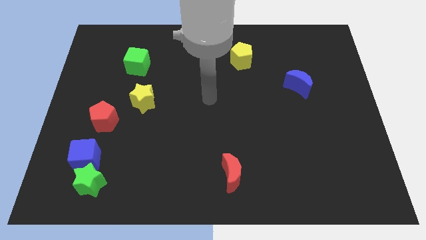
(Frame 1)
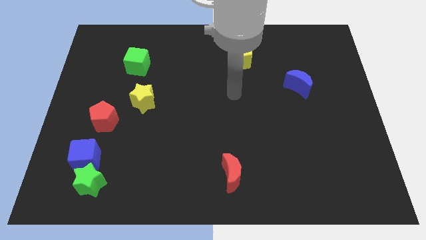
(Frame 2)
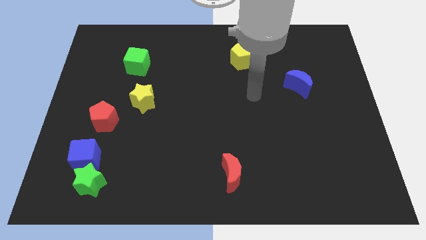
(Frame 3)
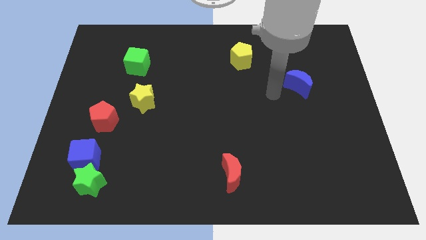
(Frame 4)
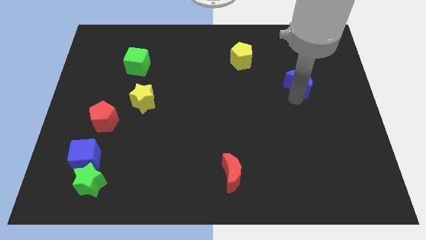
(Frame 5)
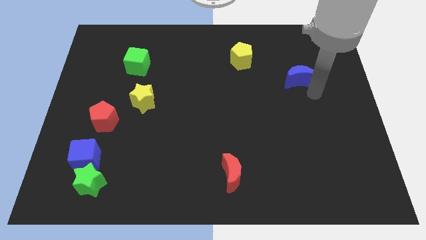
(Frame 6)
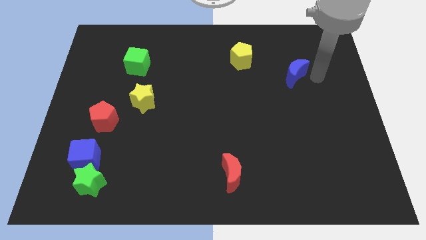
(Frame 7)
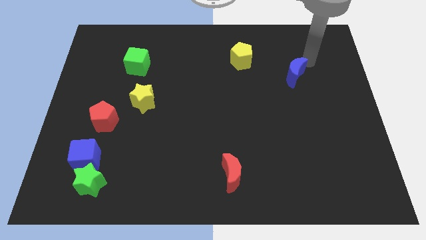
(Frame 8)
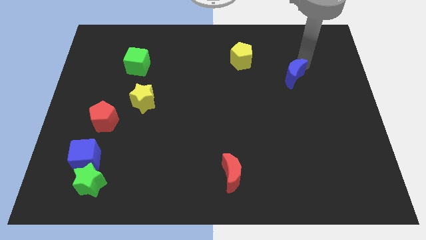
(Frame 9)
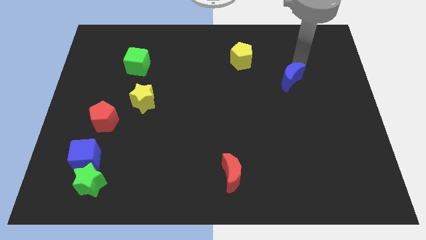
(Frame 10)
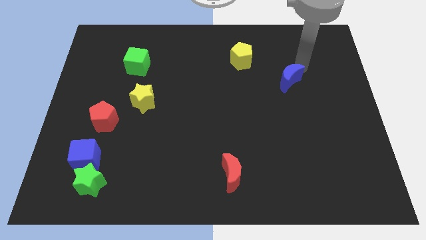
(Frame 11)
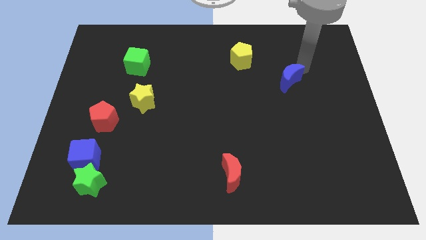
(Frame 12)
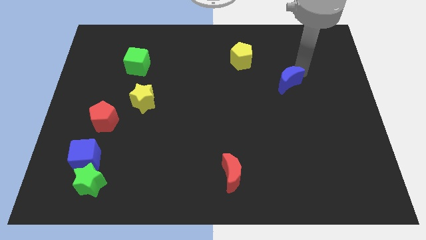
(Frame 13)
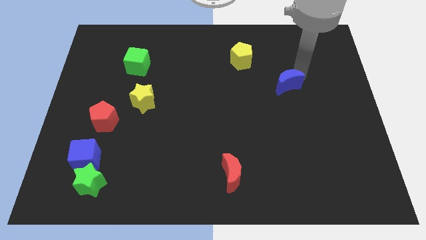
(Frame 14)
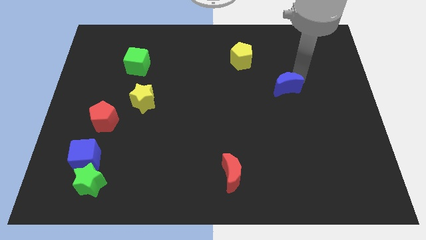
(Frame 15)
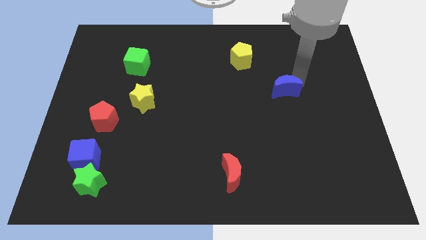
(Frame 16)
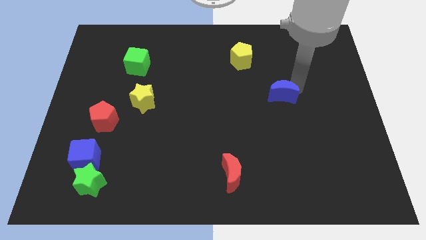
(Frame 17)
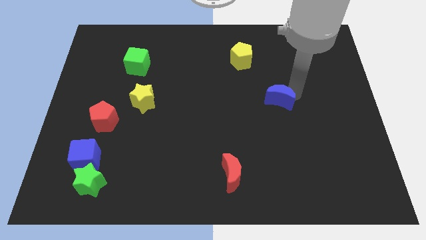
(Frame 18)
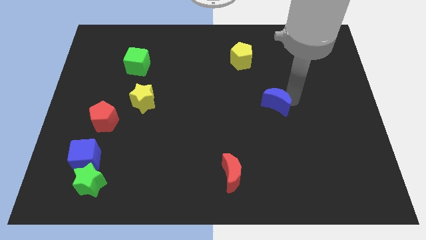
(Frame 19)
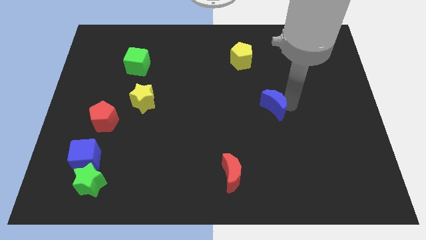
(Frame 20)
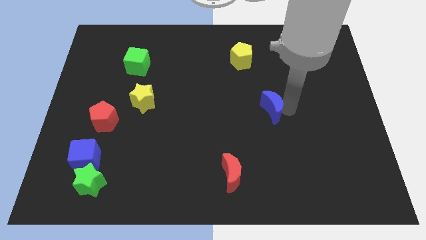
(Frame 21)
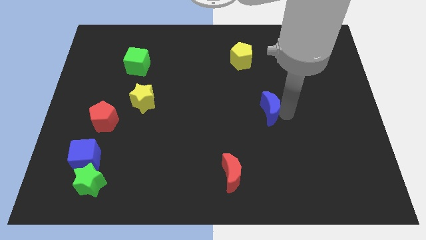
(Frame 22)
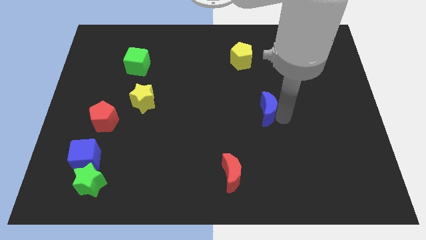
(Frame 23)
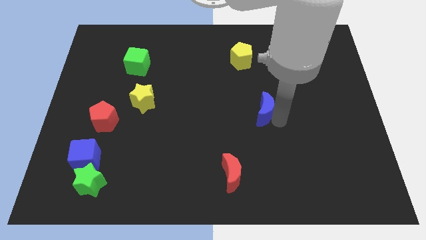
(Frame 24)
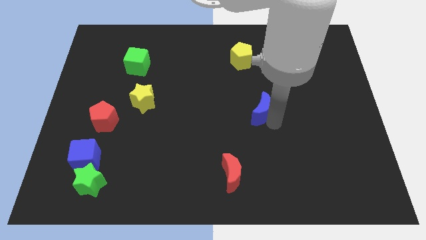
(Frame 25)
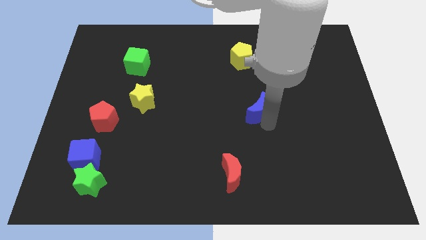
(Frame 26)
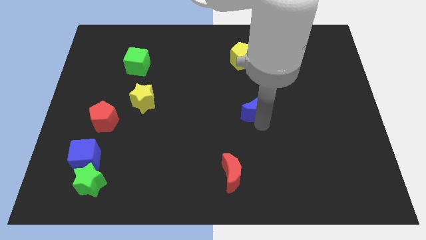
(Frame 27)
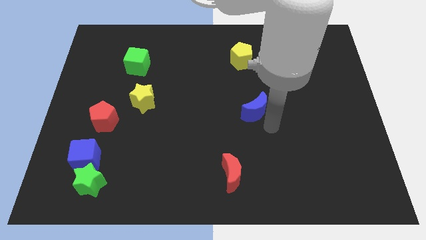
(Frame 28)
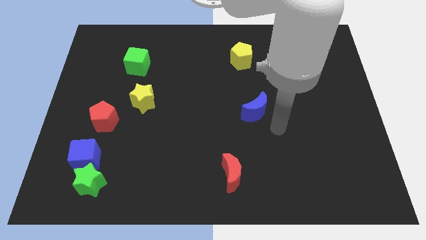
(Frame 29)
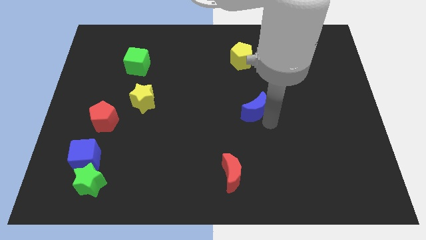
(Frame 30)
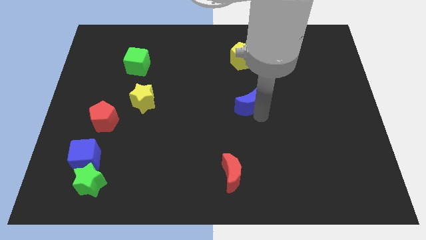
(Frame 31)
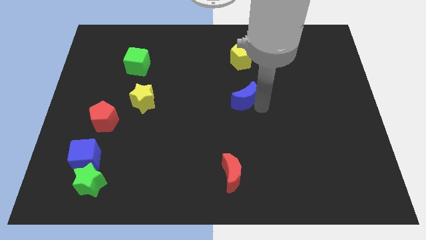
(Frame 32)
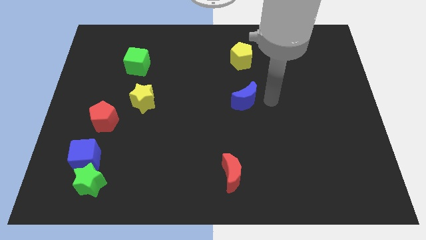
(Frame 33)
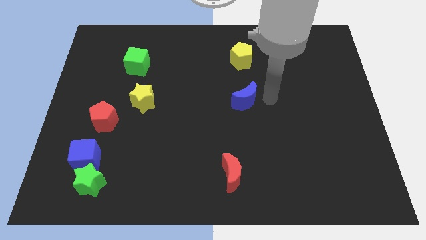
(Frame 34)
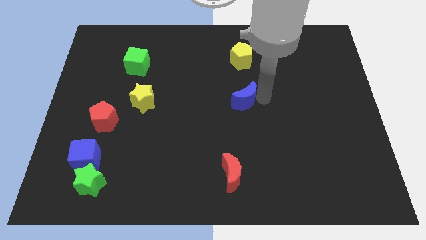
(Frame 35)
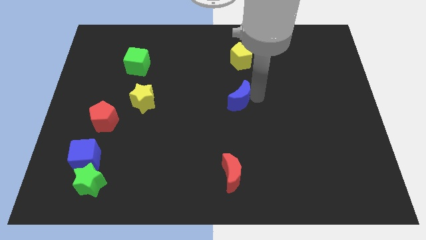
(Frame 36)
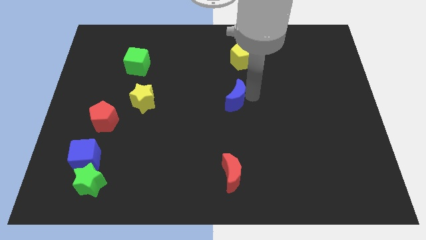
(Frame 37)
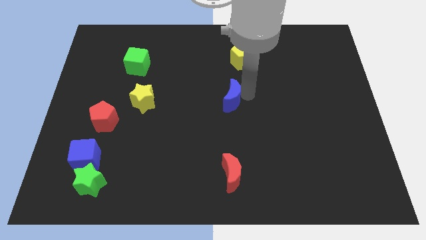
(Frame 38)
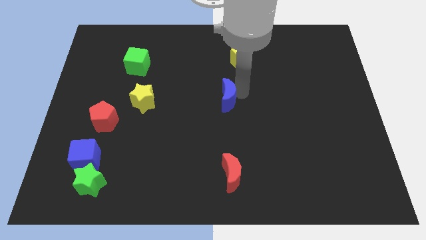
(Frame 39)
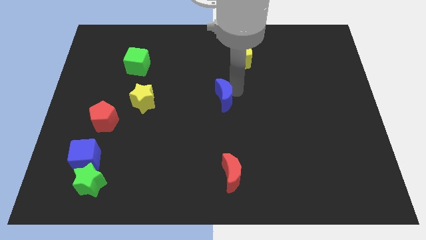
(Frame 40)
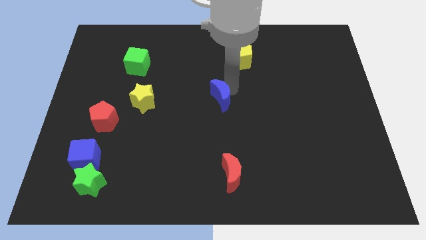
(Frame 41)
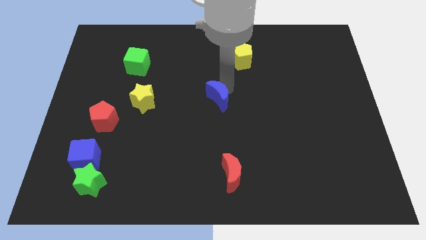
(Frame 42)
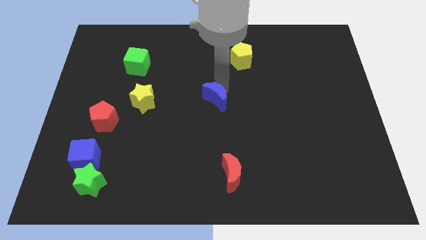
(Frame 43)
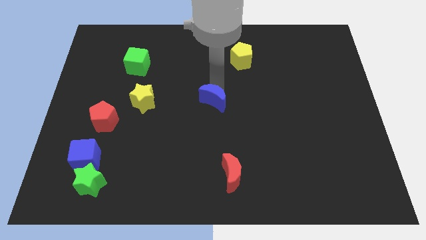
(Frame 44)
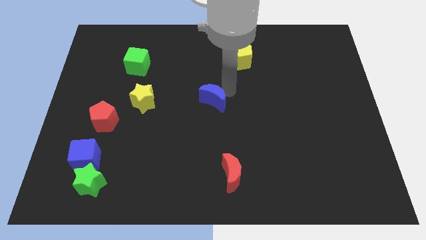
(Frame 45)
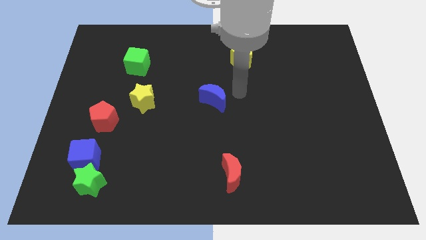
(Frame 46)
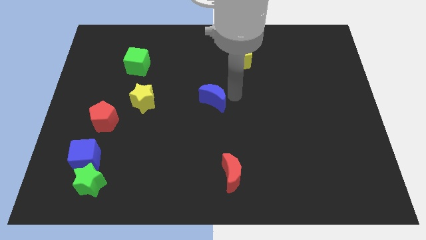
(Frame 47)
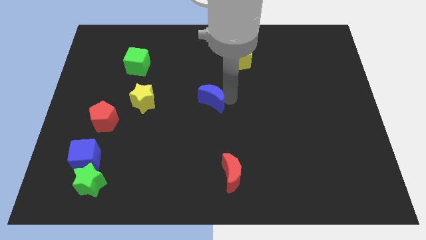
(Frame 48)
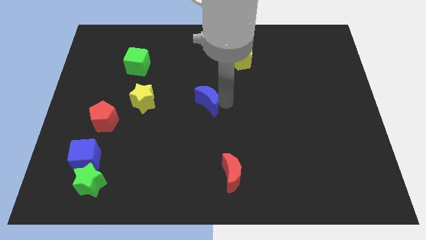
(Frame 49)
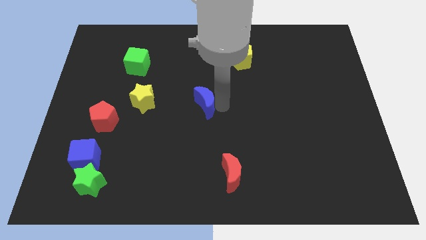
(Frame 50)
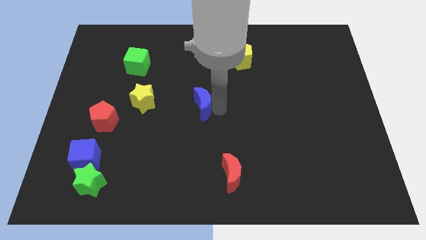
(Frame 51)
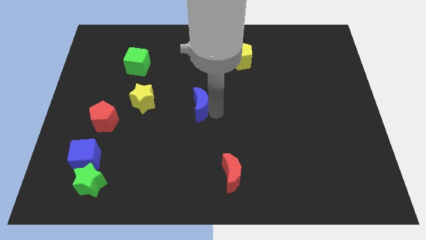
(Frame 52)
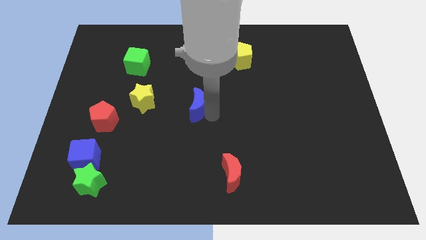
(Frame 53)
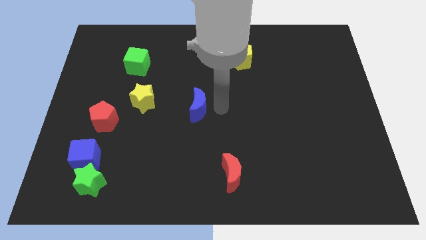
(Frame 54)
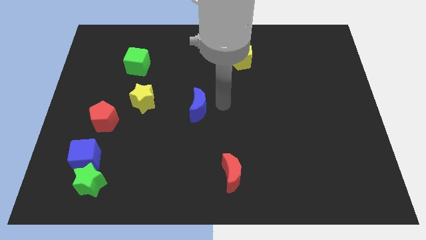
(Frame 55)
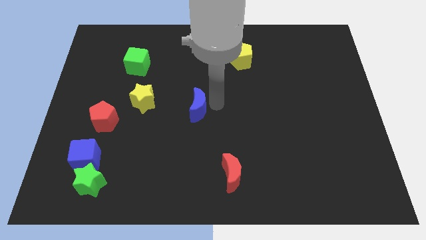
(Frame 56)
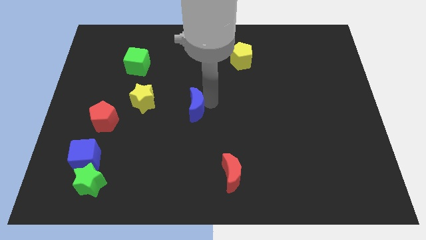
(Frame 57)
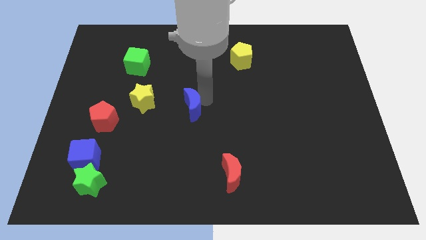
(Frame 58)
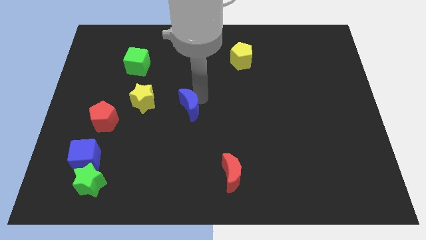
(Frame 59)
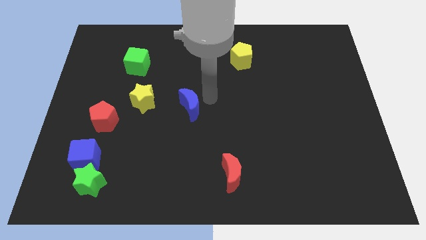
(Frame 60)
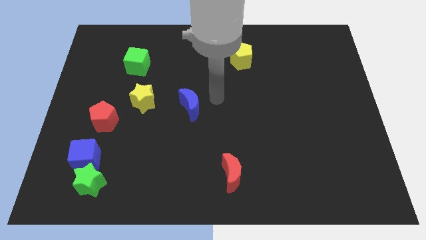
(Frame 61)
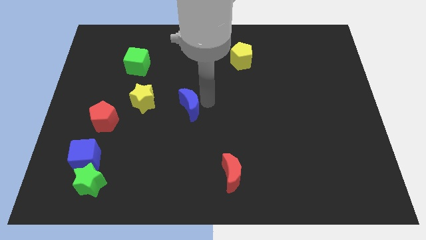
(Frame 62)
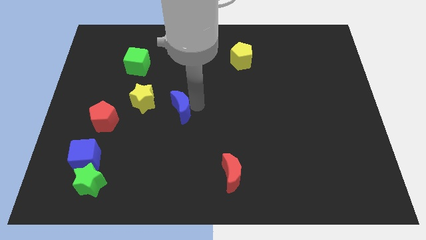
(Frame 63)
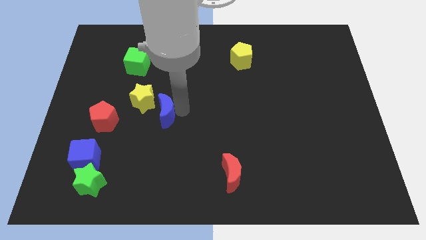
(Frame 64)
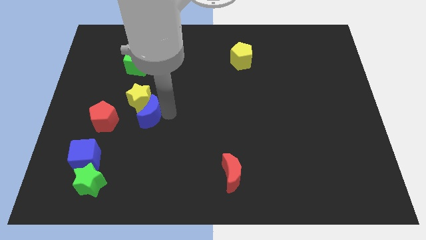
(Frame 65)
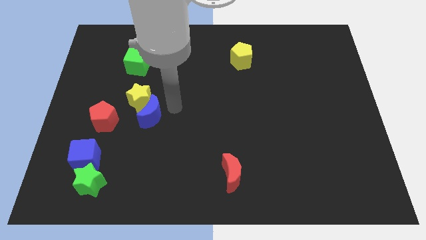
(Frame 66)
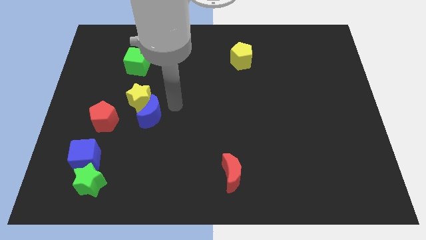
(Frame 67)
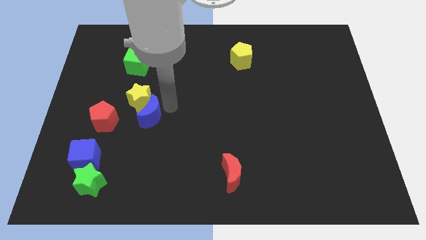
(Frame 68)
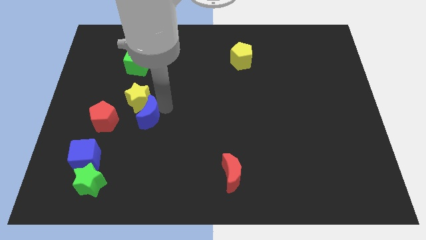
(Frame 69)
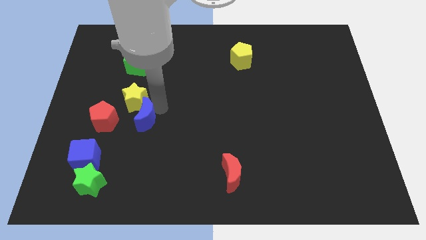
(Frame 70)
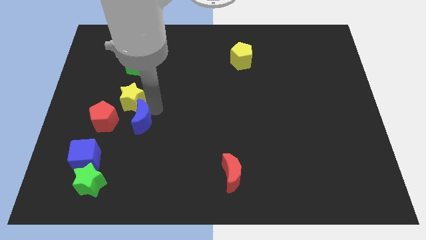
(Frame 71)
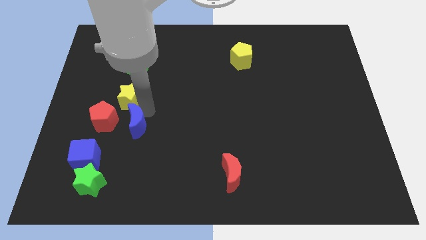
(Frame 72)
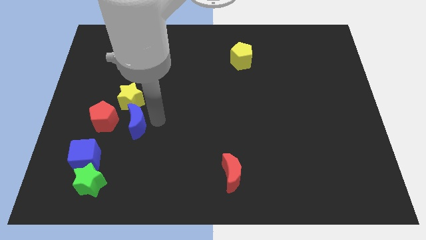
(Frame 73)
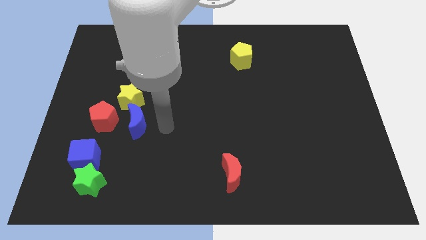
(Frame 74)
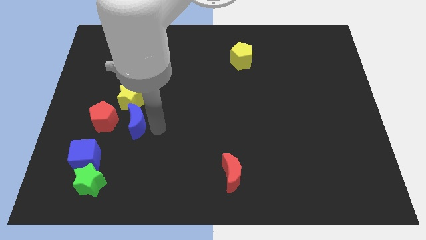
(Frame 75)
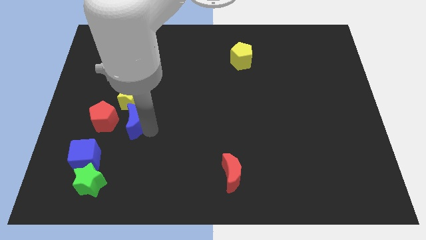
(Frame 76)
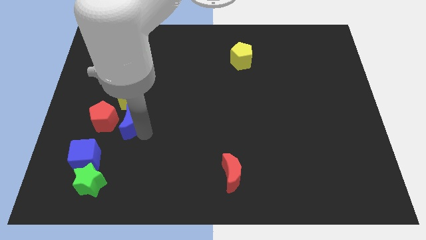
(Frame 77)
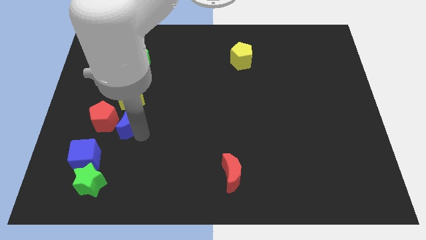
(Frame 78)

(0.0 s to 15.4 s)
put the blue moon close to the red pentagon
